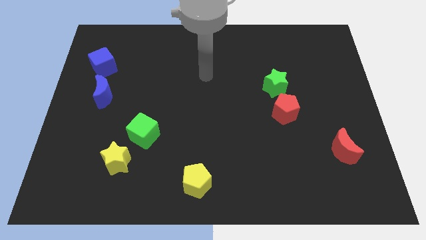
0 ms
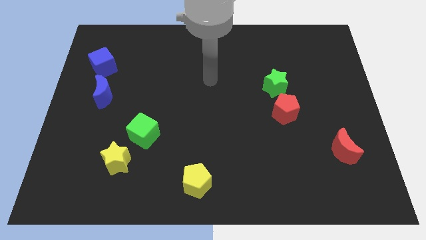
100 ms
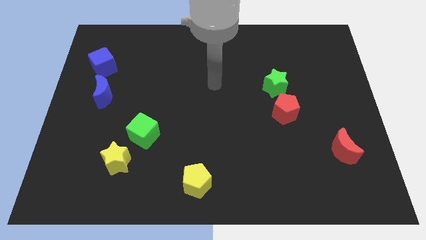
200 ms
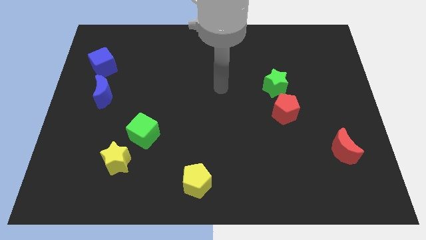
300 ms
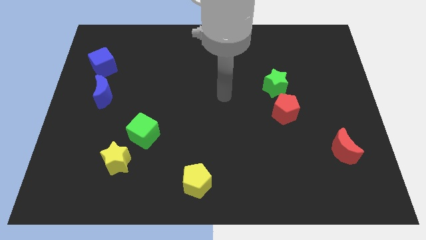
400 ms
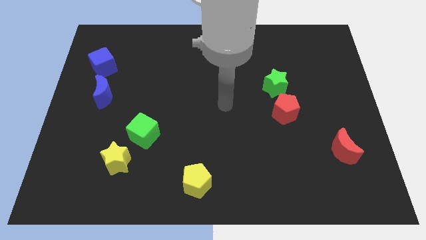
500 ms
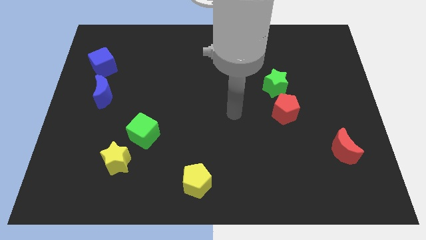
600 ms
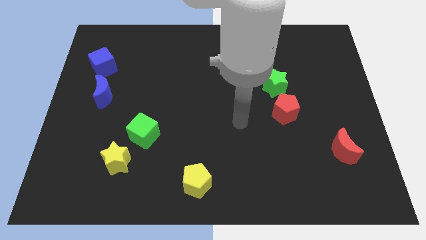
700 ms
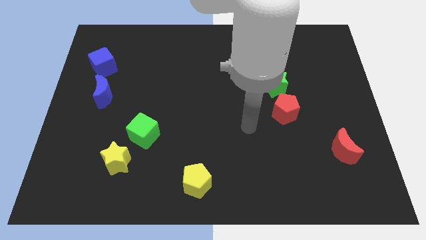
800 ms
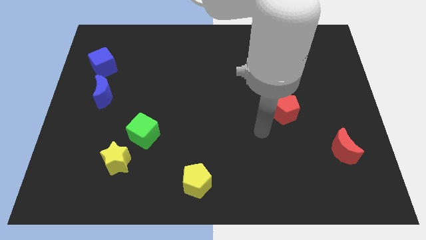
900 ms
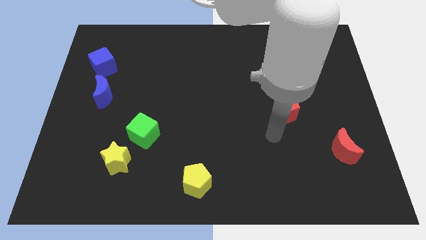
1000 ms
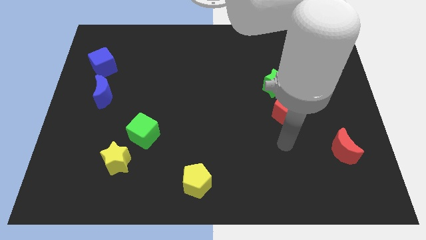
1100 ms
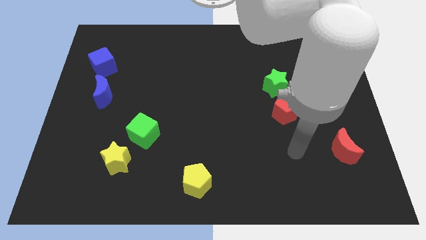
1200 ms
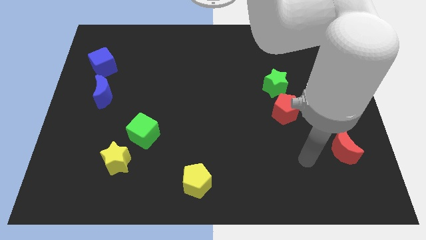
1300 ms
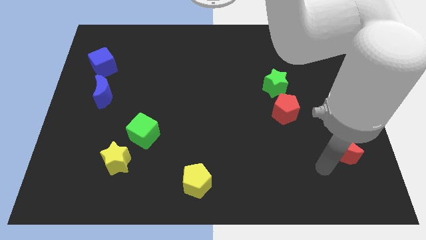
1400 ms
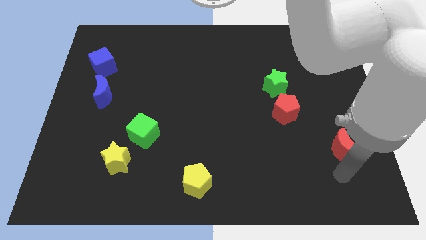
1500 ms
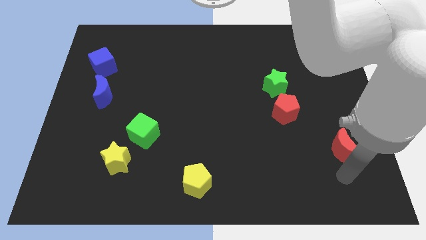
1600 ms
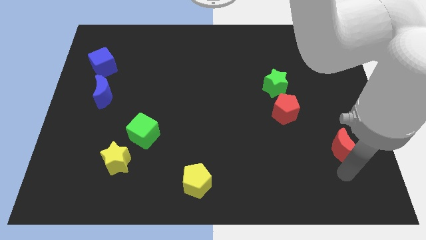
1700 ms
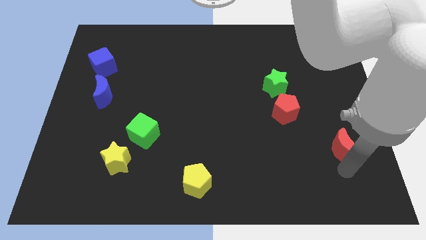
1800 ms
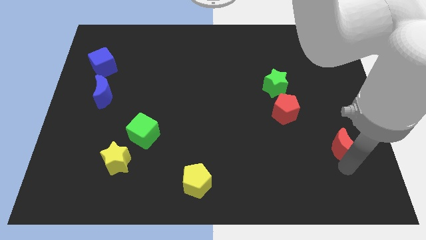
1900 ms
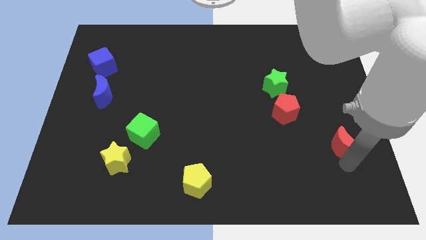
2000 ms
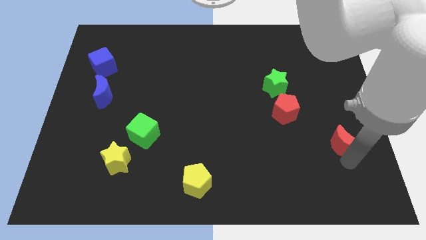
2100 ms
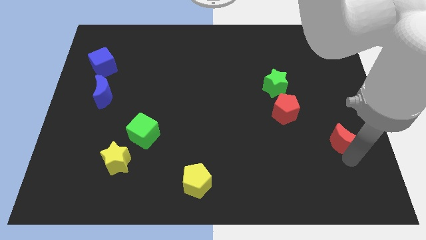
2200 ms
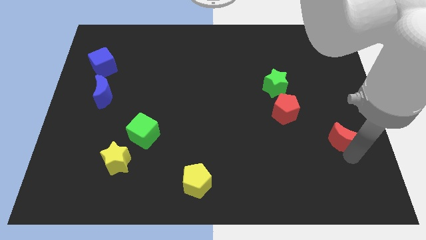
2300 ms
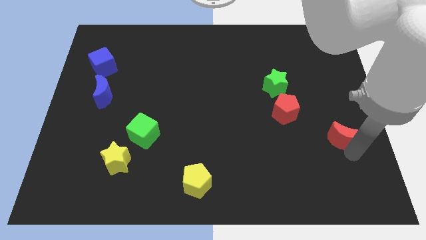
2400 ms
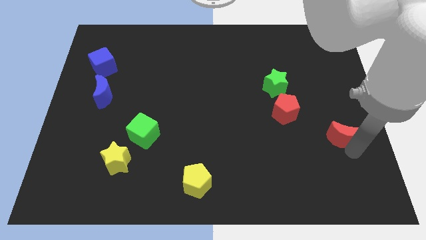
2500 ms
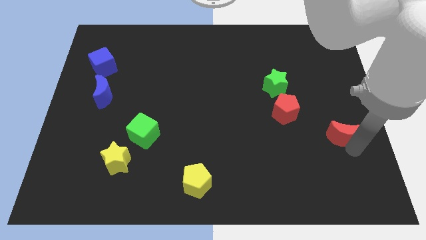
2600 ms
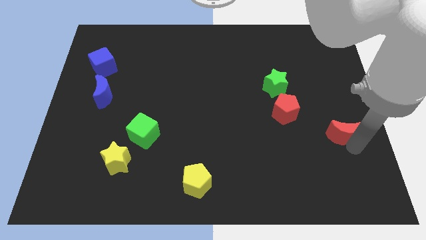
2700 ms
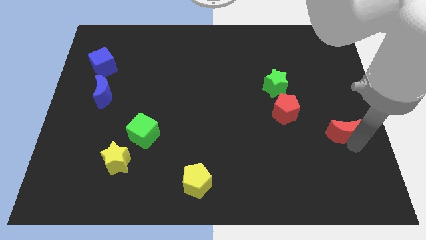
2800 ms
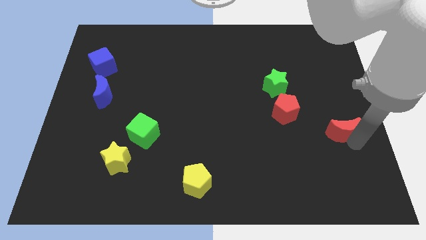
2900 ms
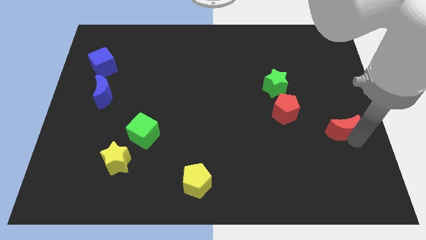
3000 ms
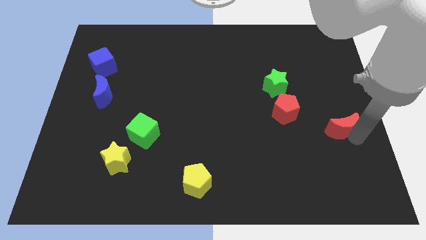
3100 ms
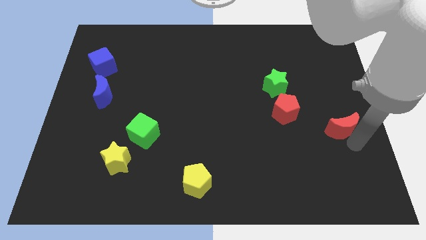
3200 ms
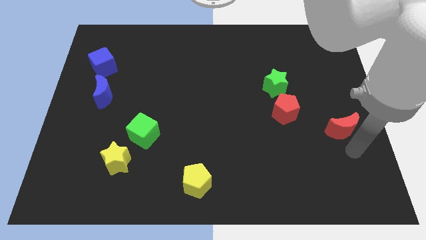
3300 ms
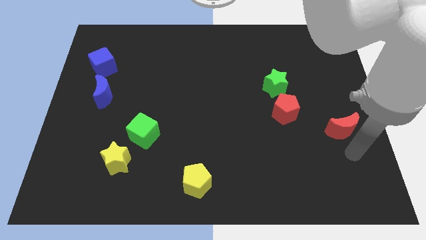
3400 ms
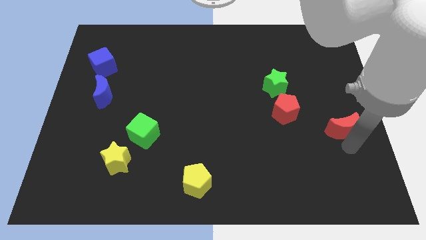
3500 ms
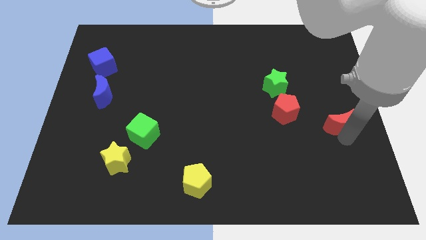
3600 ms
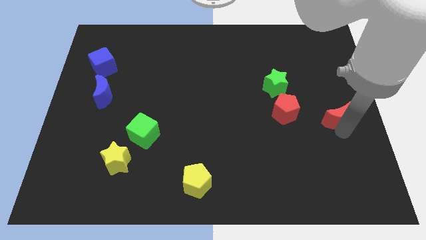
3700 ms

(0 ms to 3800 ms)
slightly slide the red moon upwards

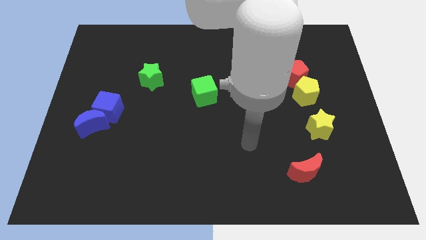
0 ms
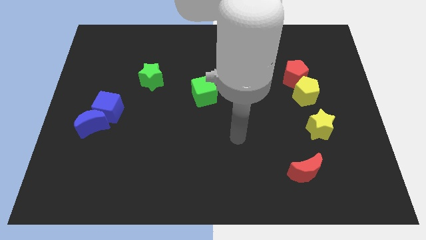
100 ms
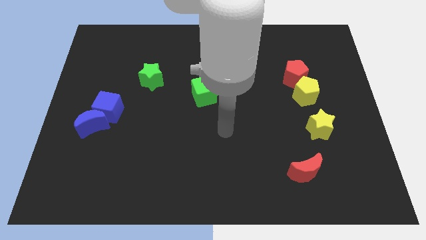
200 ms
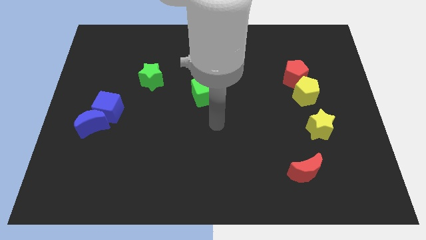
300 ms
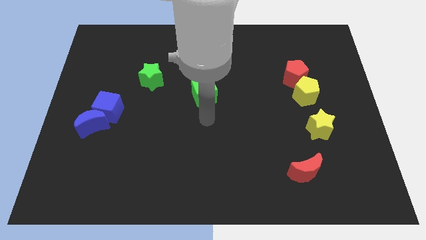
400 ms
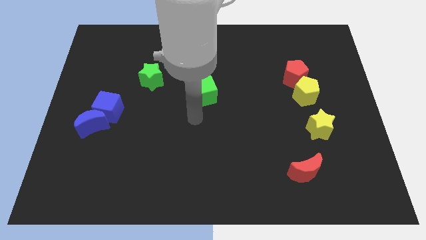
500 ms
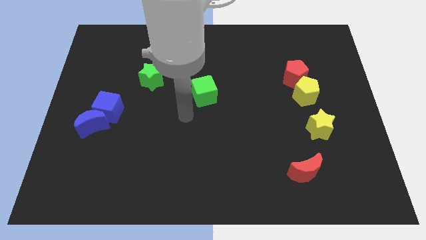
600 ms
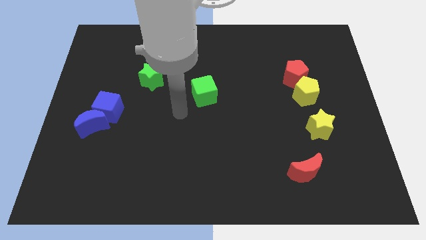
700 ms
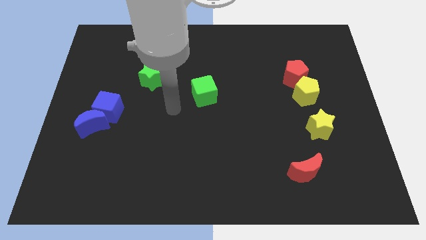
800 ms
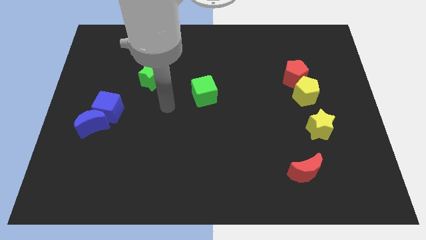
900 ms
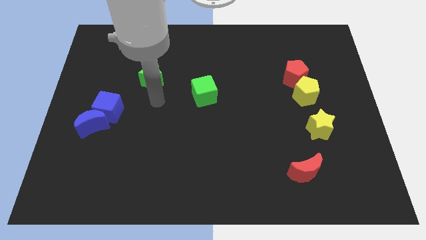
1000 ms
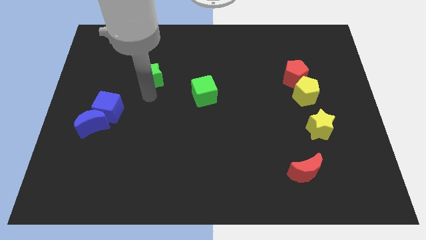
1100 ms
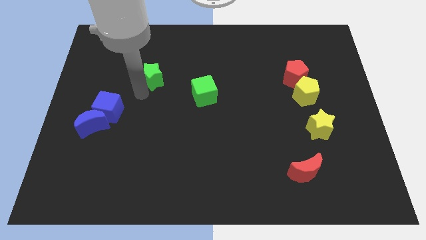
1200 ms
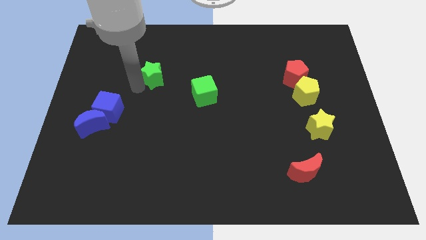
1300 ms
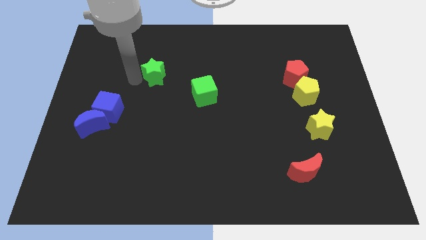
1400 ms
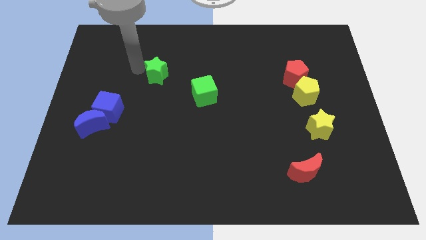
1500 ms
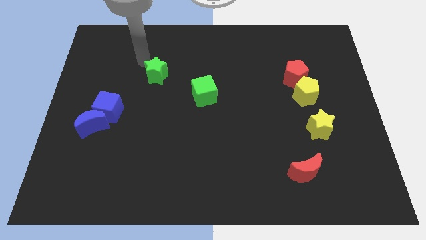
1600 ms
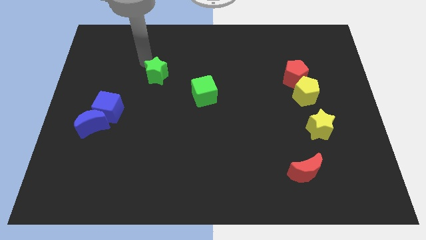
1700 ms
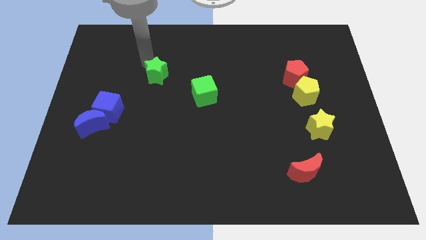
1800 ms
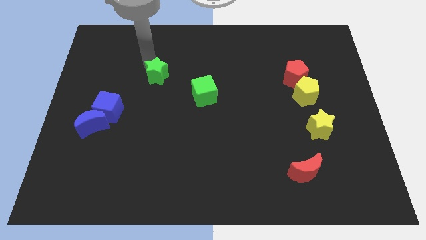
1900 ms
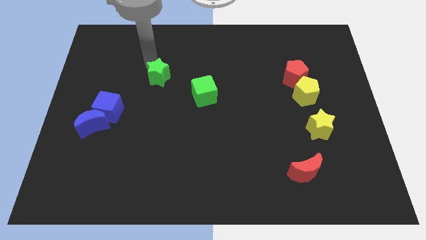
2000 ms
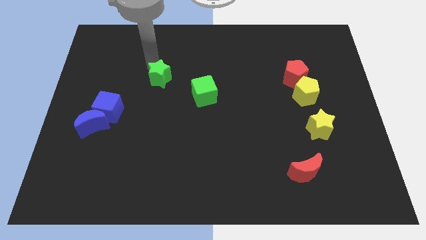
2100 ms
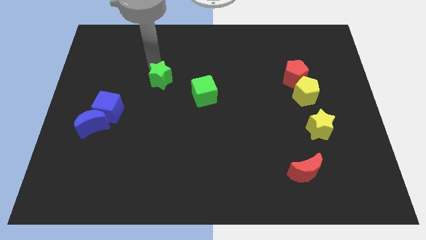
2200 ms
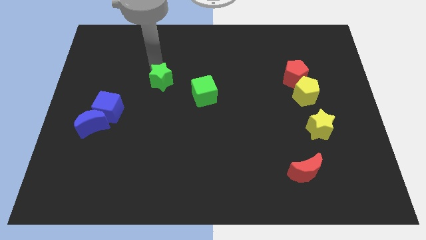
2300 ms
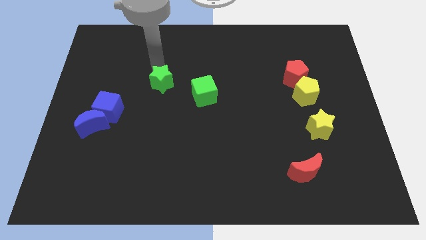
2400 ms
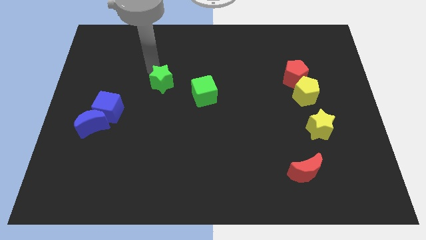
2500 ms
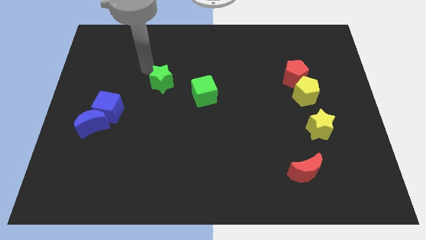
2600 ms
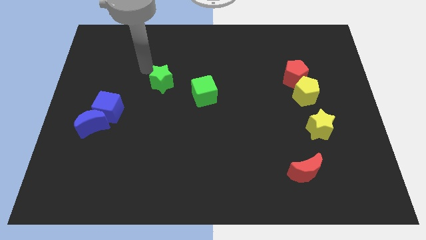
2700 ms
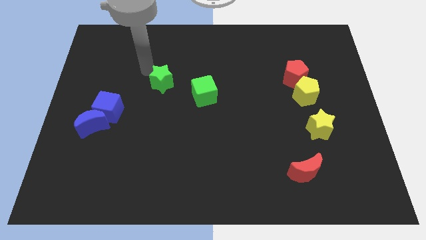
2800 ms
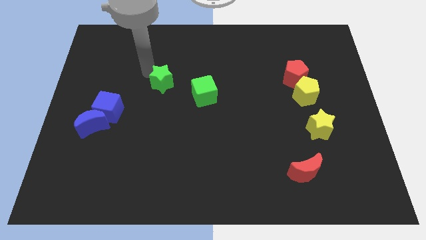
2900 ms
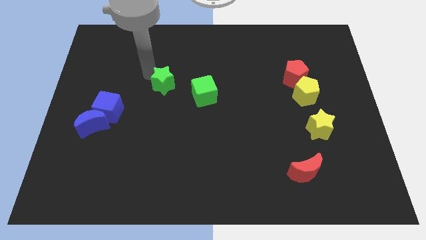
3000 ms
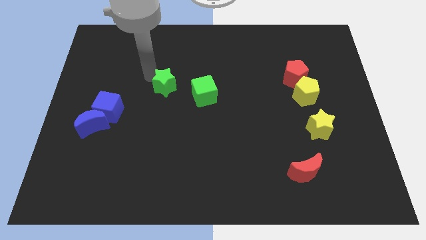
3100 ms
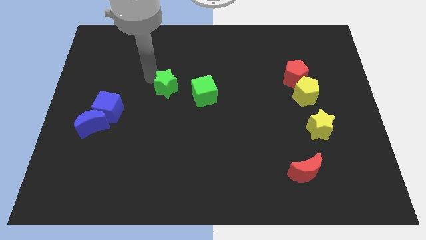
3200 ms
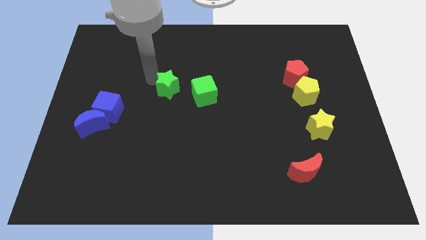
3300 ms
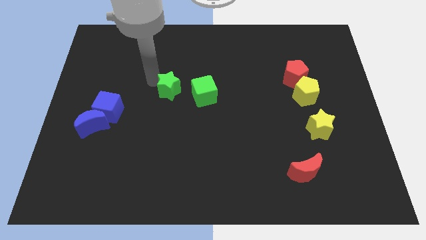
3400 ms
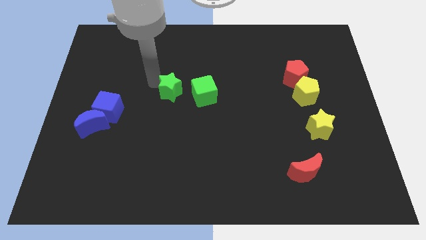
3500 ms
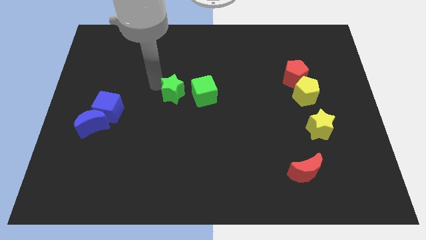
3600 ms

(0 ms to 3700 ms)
move the green star slightly downwards and right

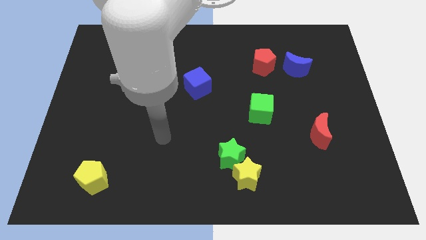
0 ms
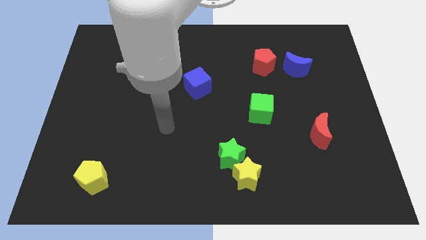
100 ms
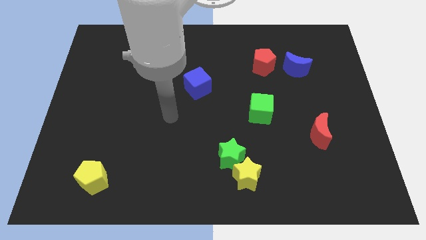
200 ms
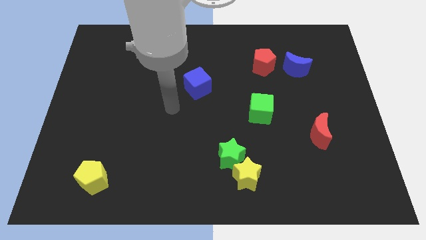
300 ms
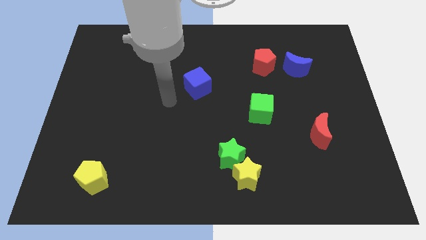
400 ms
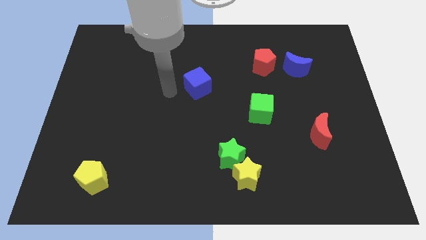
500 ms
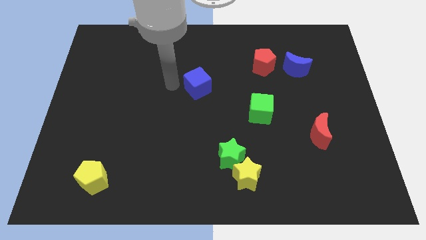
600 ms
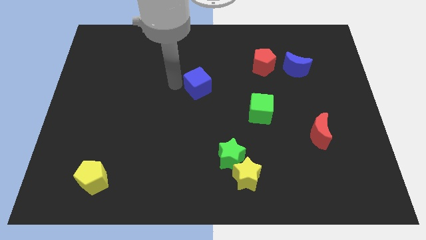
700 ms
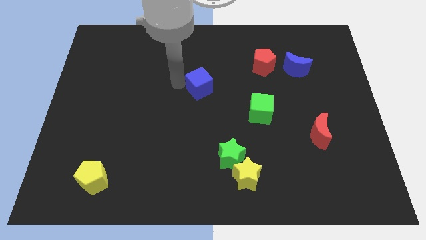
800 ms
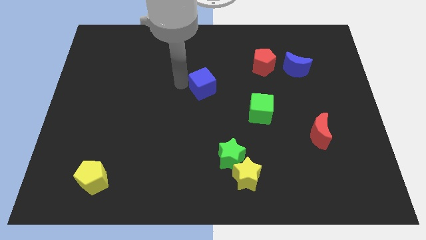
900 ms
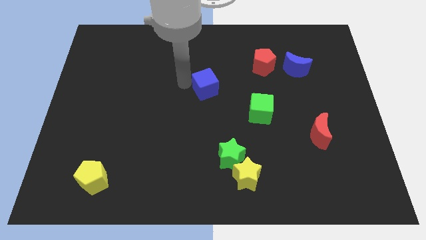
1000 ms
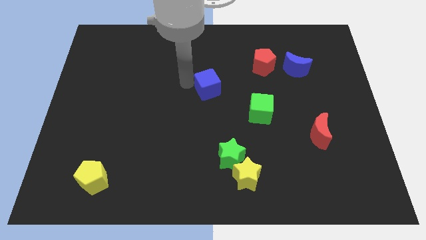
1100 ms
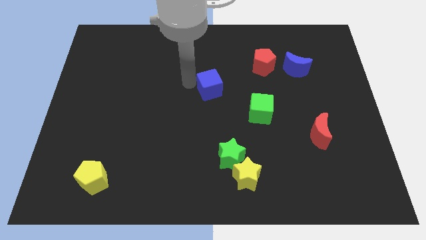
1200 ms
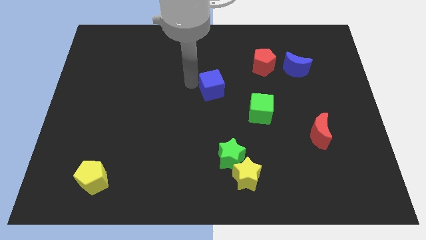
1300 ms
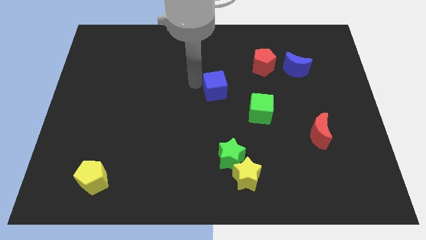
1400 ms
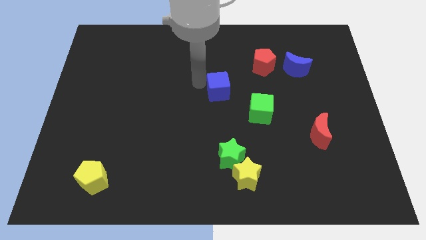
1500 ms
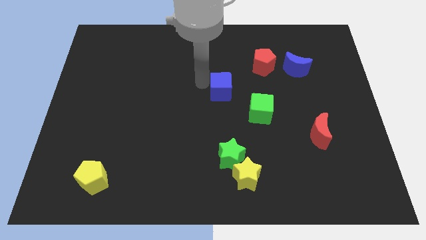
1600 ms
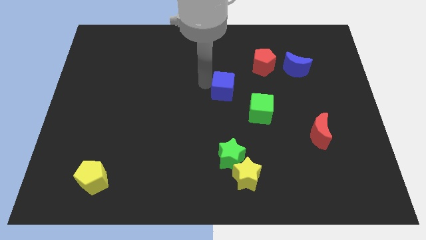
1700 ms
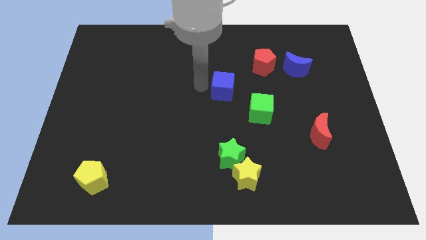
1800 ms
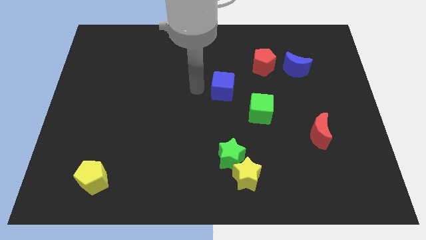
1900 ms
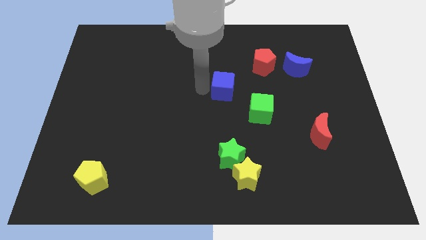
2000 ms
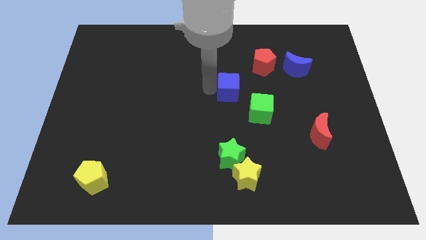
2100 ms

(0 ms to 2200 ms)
push the blue cube to the right a little bit
